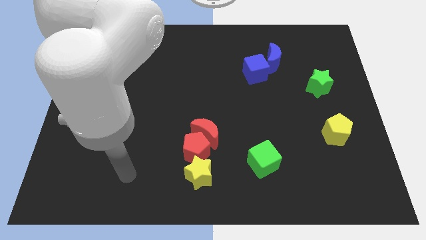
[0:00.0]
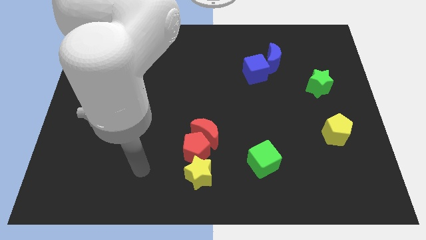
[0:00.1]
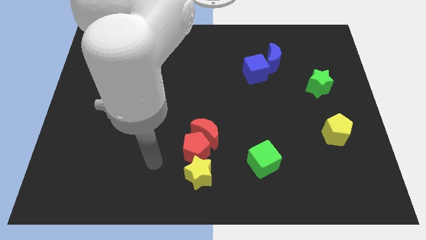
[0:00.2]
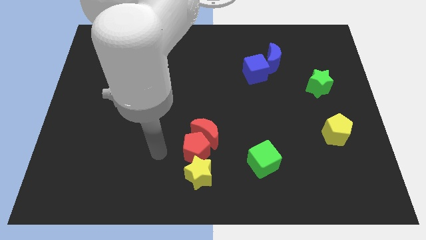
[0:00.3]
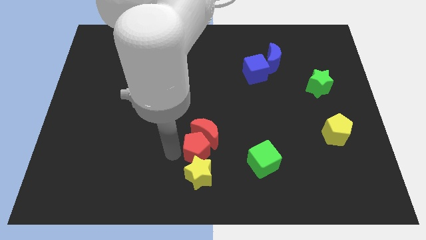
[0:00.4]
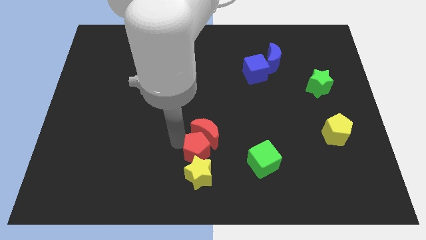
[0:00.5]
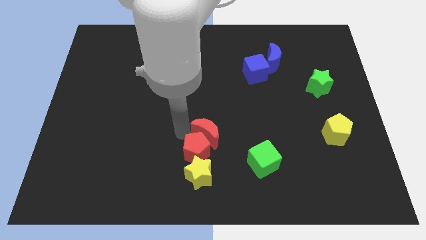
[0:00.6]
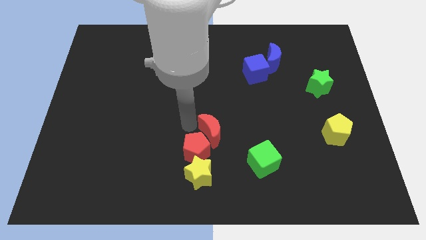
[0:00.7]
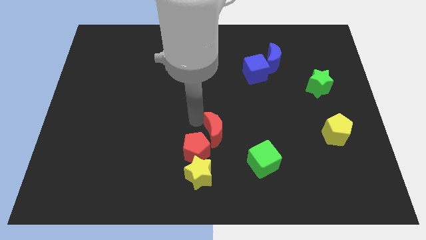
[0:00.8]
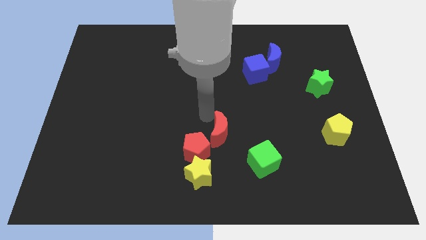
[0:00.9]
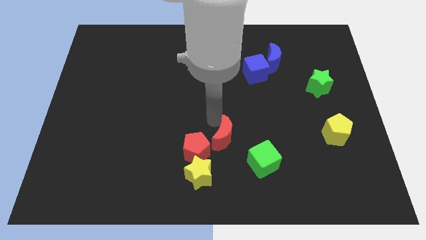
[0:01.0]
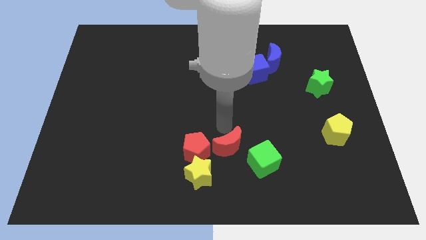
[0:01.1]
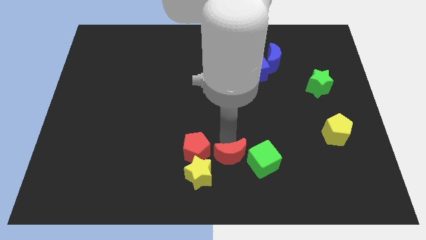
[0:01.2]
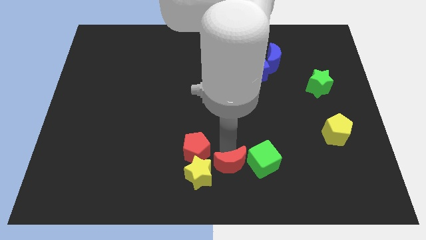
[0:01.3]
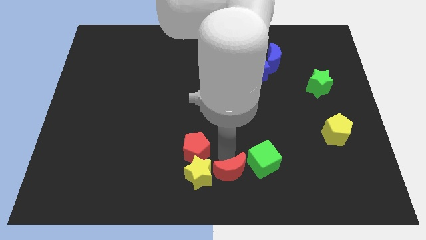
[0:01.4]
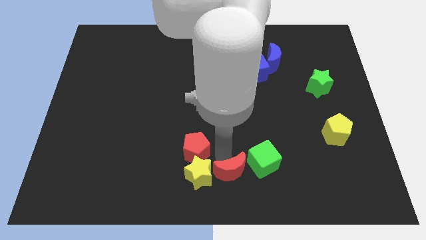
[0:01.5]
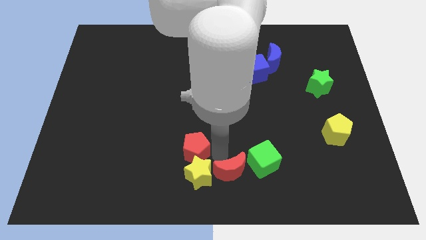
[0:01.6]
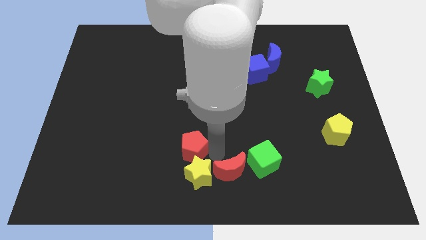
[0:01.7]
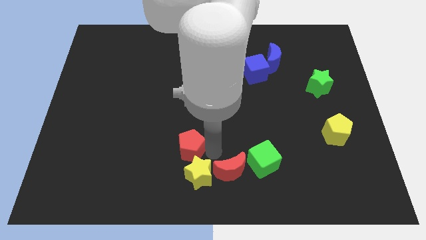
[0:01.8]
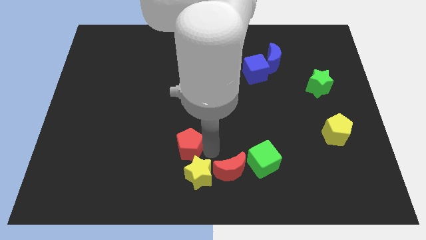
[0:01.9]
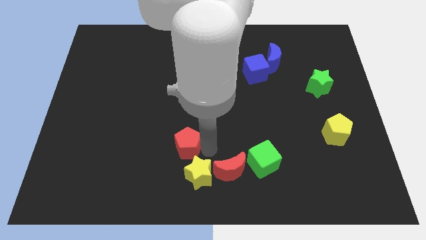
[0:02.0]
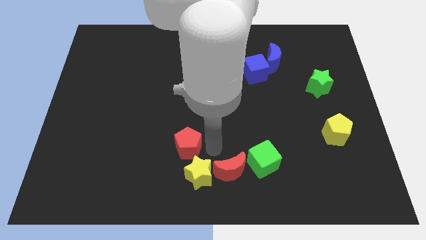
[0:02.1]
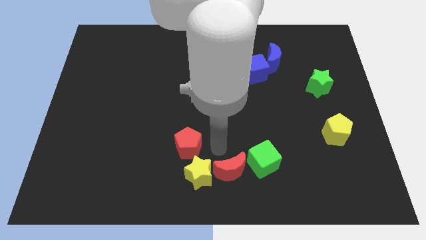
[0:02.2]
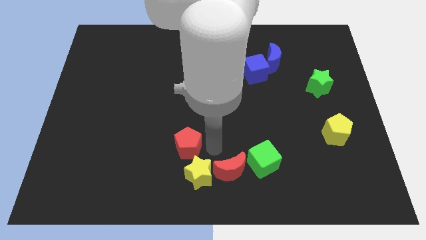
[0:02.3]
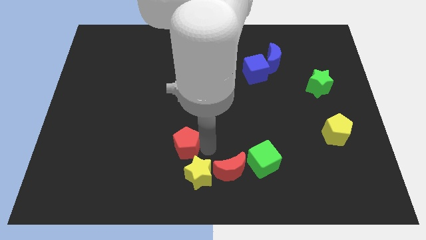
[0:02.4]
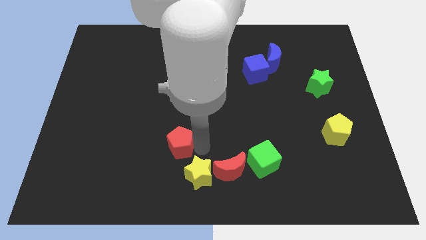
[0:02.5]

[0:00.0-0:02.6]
separate the red pentagon from the red moon and yellow star

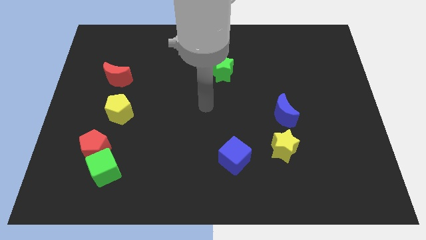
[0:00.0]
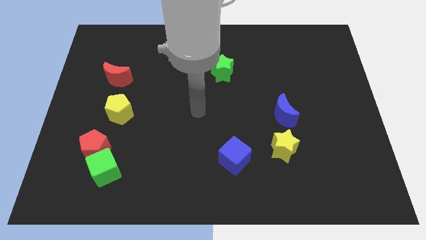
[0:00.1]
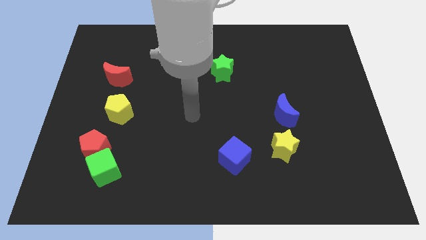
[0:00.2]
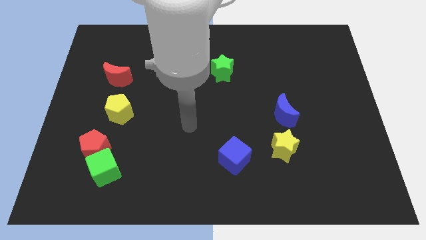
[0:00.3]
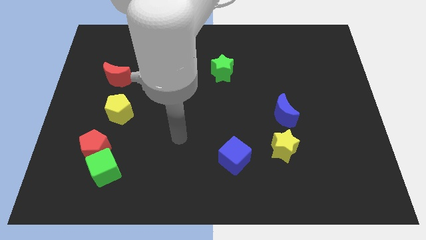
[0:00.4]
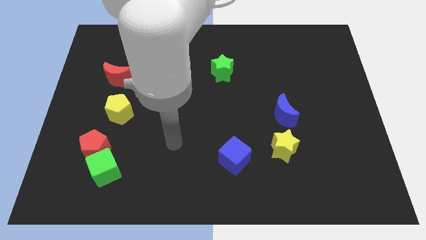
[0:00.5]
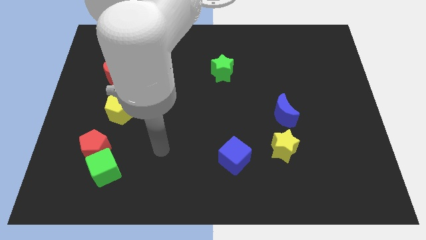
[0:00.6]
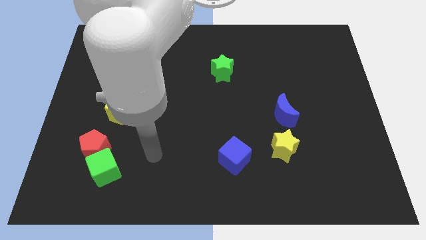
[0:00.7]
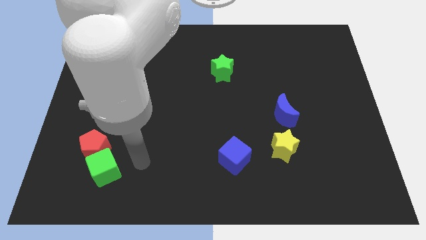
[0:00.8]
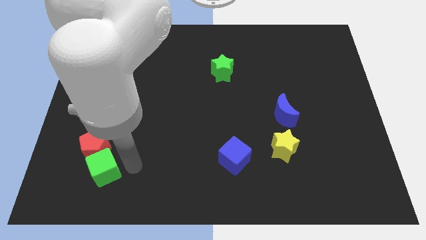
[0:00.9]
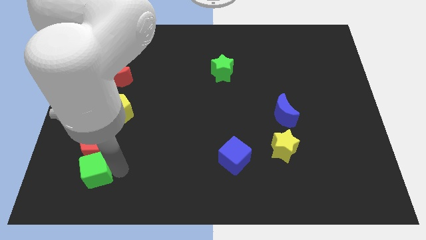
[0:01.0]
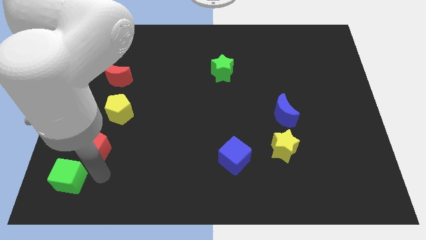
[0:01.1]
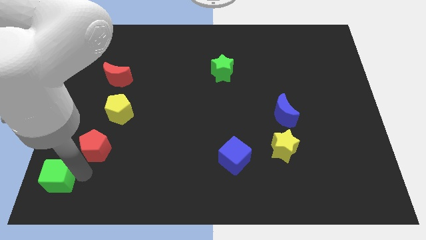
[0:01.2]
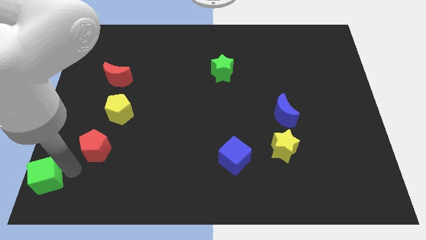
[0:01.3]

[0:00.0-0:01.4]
separate the red pentagon from the green cube

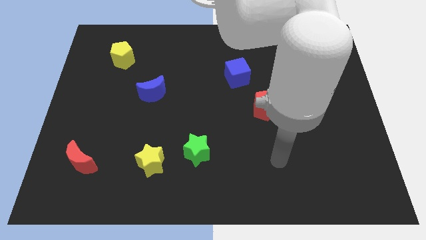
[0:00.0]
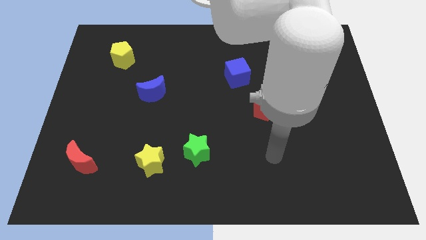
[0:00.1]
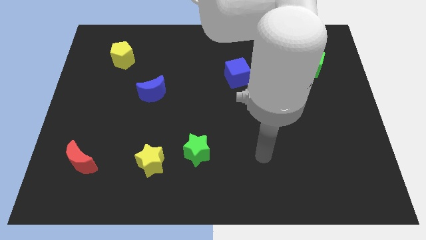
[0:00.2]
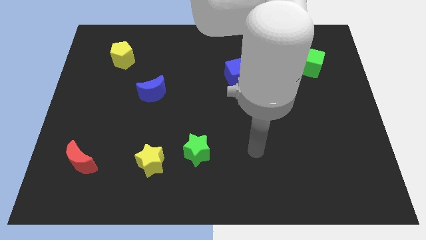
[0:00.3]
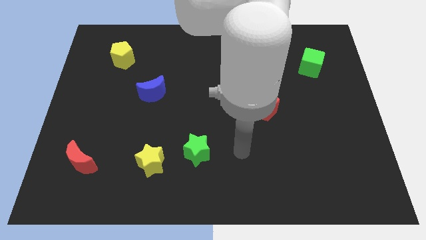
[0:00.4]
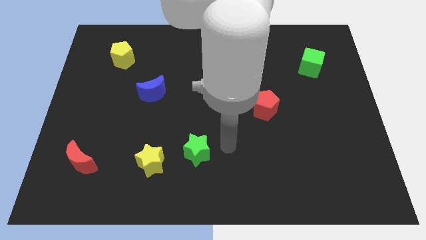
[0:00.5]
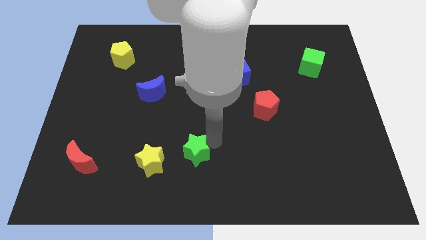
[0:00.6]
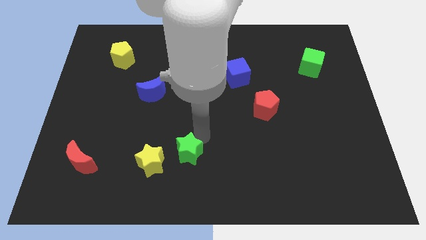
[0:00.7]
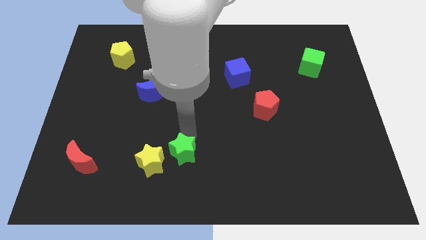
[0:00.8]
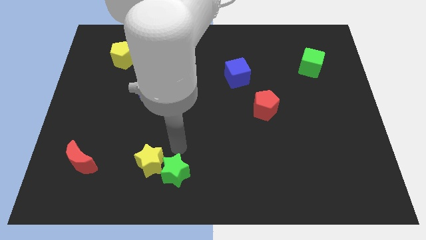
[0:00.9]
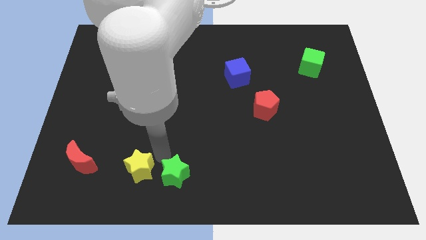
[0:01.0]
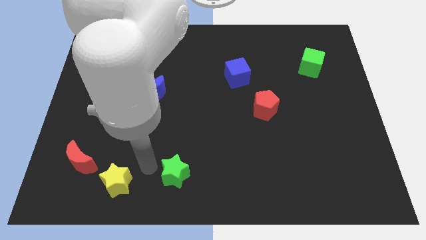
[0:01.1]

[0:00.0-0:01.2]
separate the green star from the yellow star

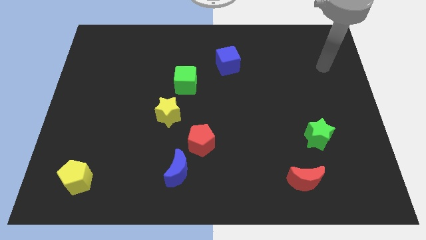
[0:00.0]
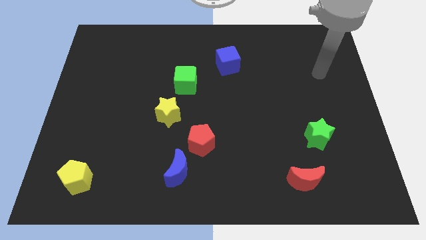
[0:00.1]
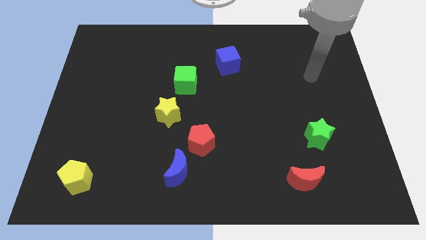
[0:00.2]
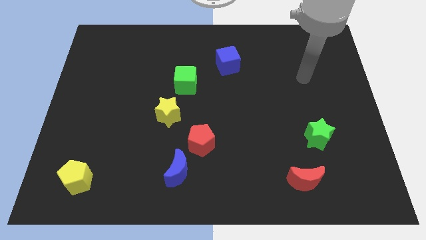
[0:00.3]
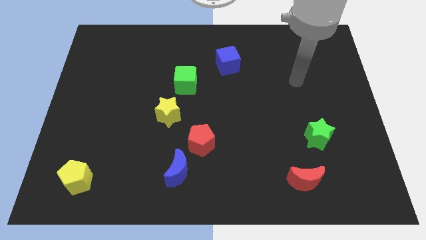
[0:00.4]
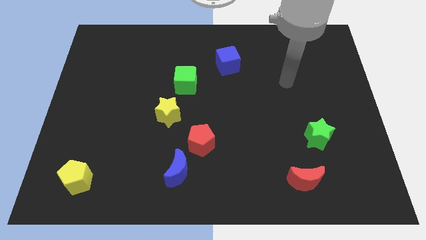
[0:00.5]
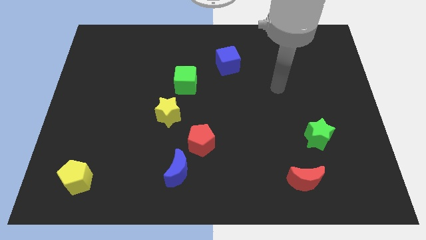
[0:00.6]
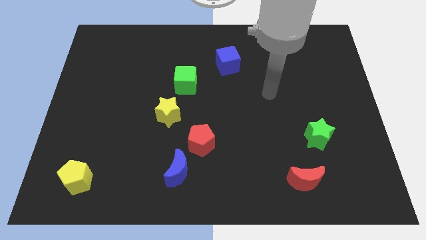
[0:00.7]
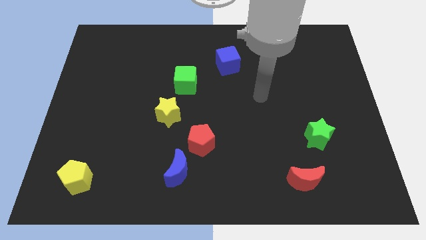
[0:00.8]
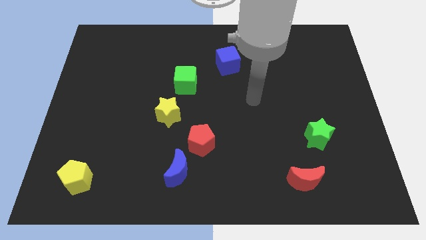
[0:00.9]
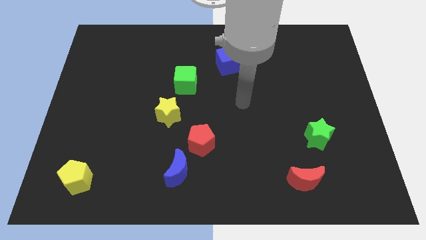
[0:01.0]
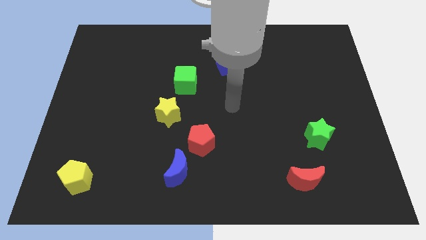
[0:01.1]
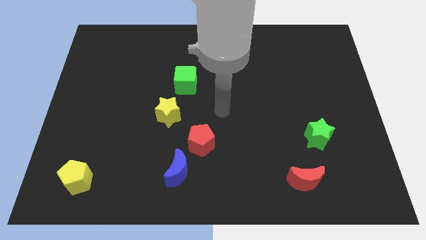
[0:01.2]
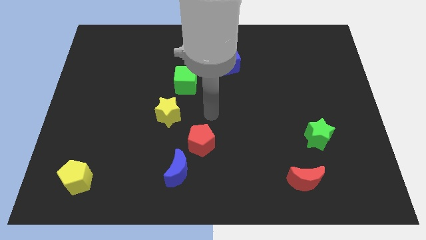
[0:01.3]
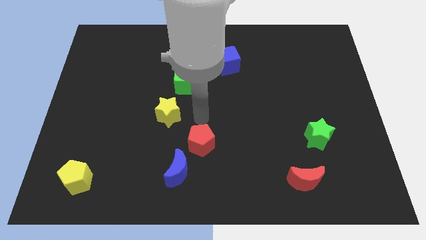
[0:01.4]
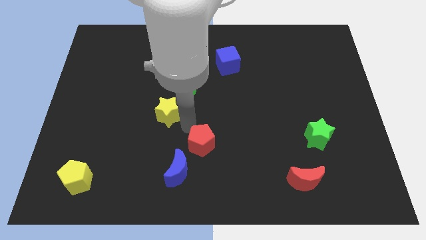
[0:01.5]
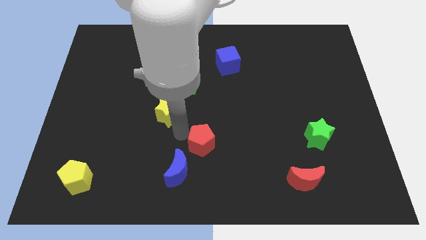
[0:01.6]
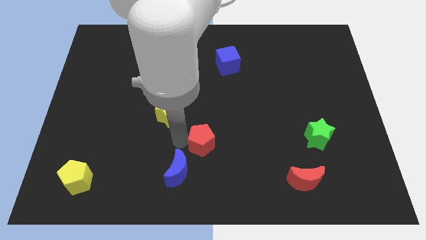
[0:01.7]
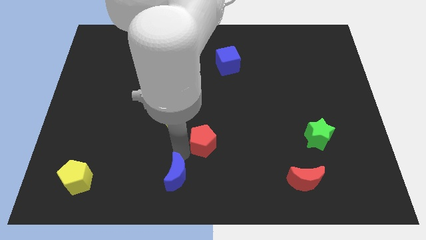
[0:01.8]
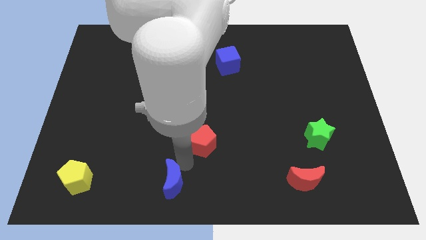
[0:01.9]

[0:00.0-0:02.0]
move the red pentagon away from the blue moon

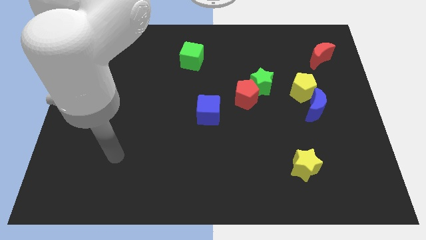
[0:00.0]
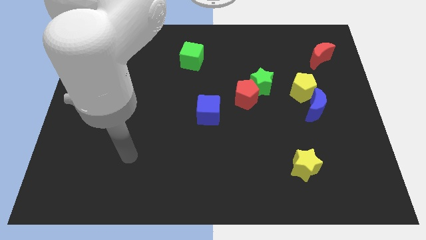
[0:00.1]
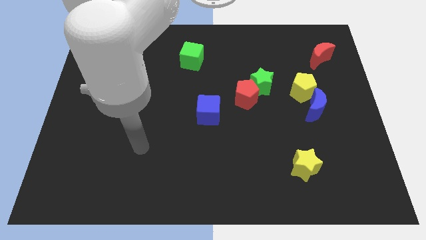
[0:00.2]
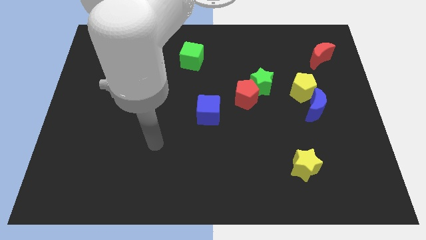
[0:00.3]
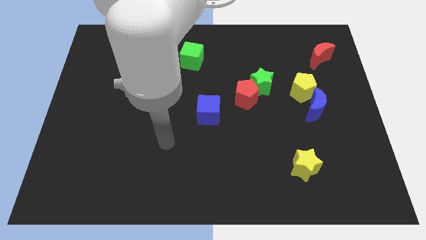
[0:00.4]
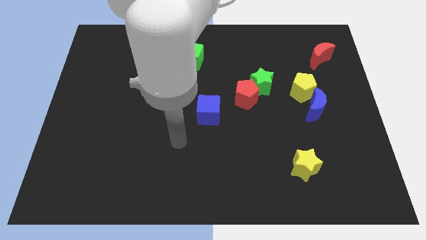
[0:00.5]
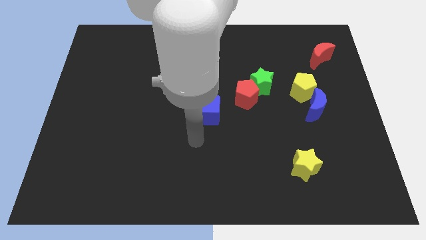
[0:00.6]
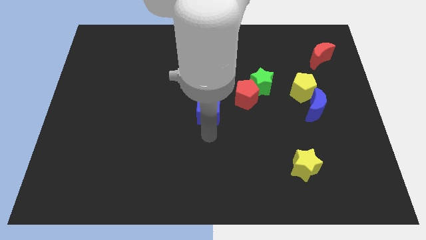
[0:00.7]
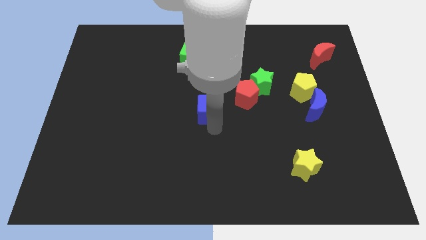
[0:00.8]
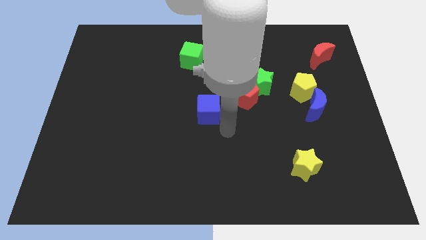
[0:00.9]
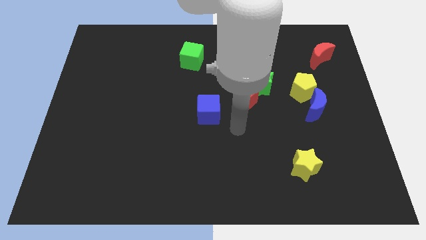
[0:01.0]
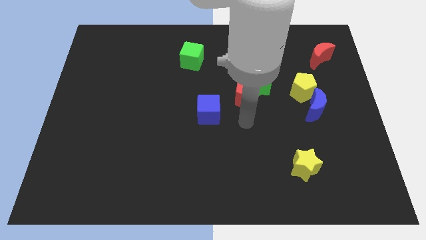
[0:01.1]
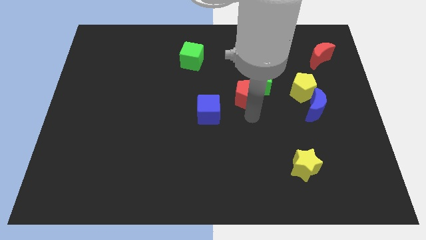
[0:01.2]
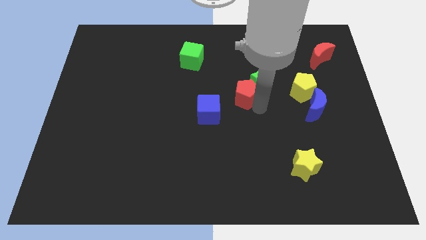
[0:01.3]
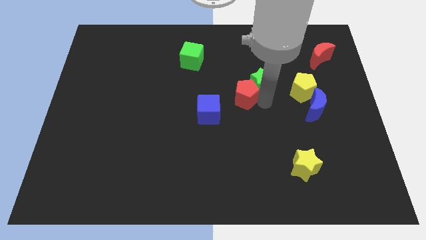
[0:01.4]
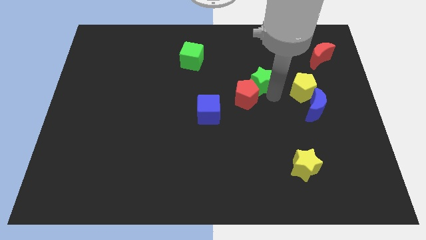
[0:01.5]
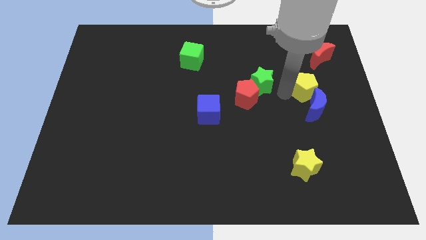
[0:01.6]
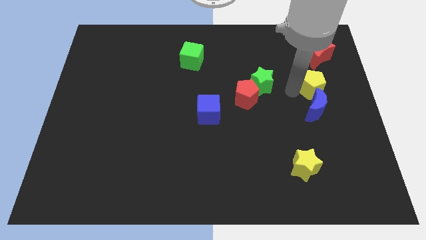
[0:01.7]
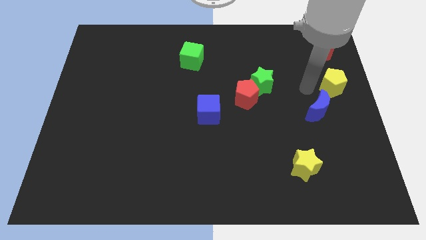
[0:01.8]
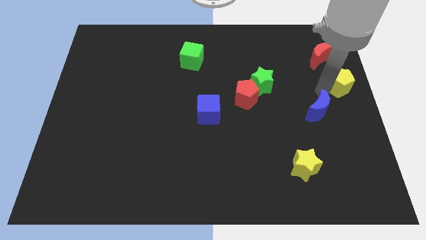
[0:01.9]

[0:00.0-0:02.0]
pull the blue moon apart from the yellow pentagon
